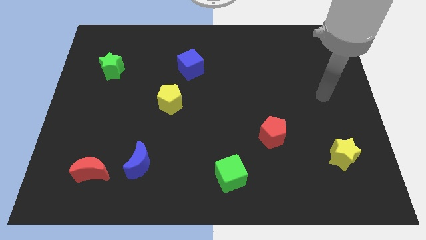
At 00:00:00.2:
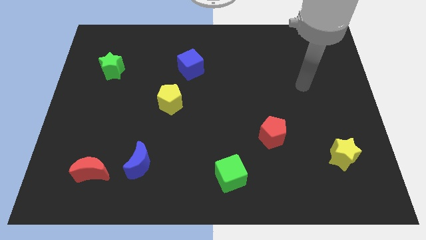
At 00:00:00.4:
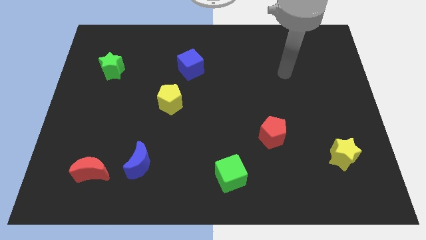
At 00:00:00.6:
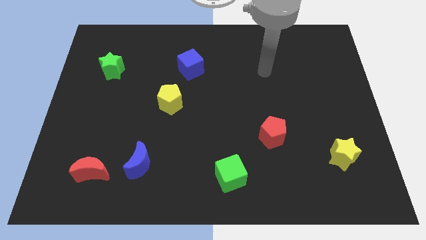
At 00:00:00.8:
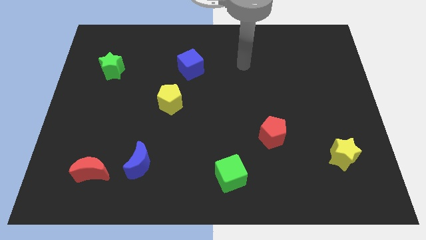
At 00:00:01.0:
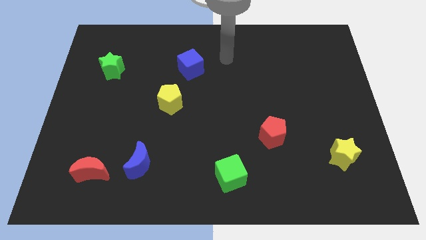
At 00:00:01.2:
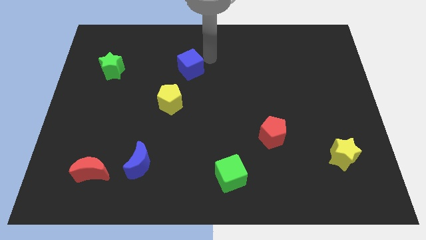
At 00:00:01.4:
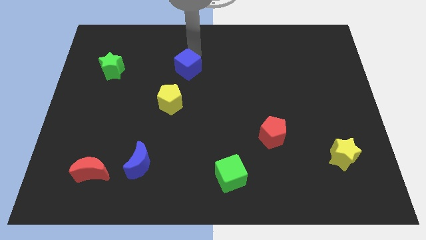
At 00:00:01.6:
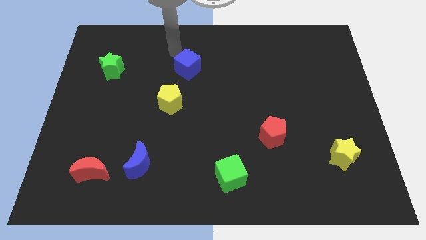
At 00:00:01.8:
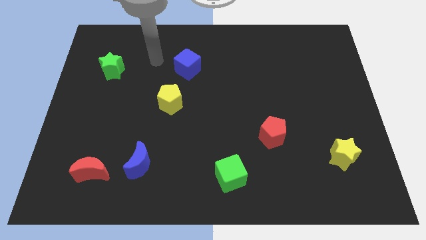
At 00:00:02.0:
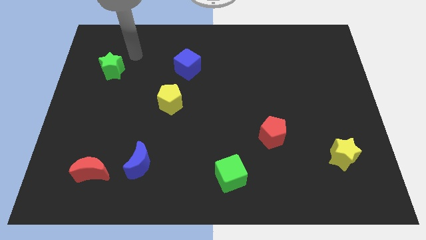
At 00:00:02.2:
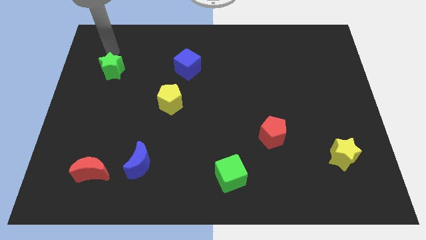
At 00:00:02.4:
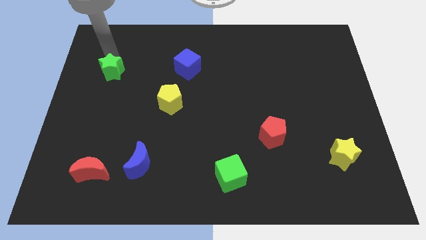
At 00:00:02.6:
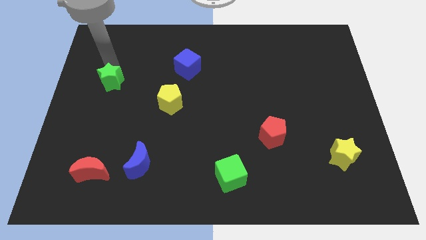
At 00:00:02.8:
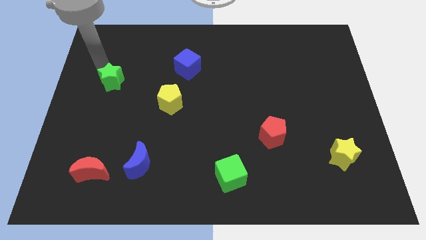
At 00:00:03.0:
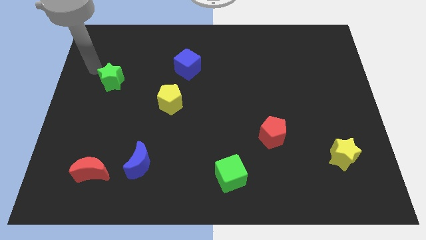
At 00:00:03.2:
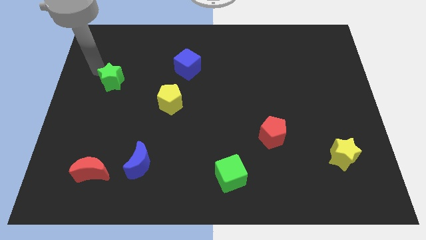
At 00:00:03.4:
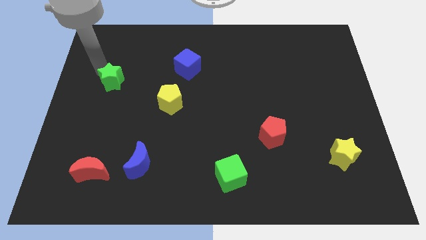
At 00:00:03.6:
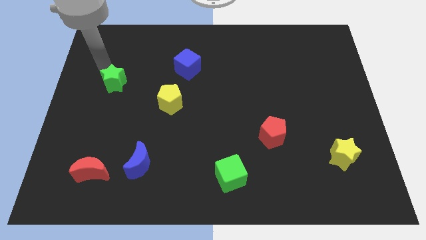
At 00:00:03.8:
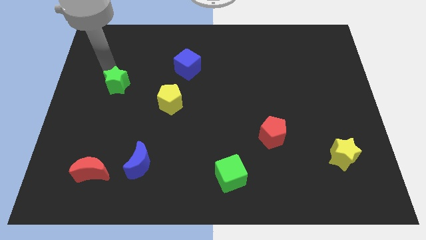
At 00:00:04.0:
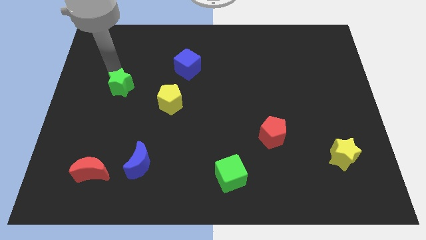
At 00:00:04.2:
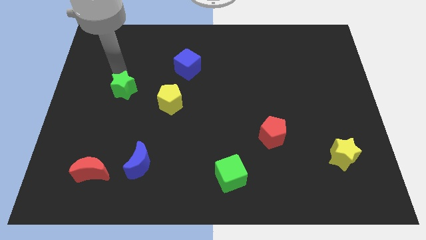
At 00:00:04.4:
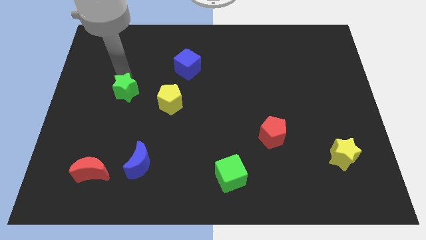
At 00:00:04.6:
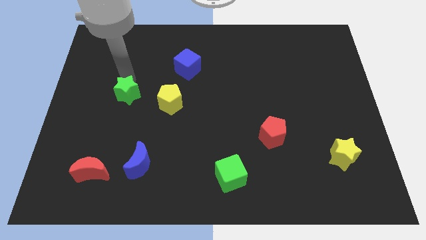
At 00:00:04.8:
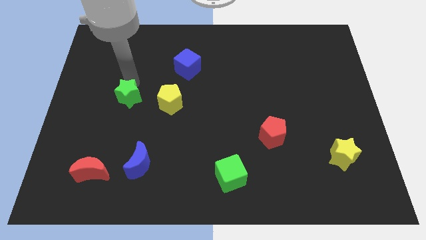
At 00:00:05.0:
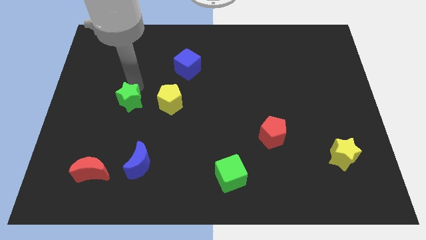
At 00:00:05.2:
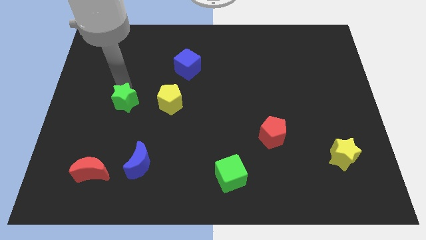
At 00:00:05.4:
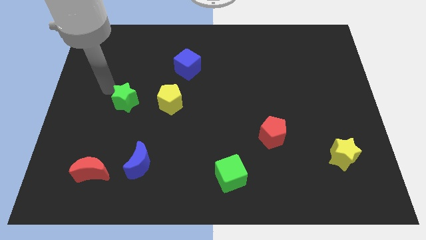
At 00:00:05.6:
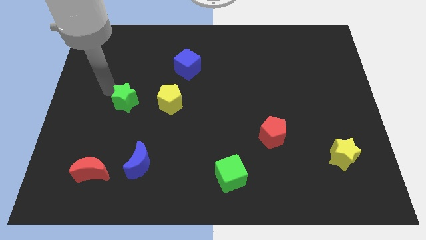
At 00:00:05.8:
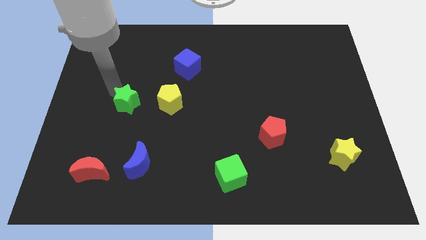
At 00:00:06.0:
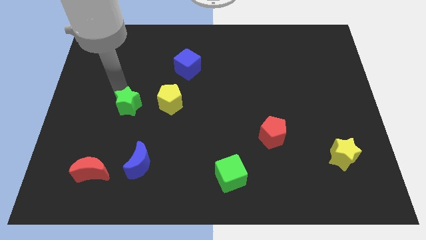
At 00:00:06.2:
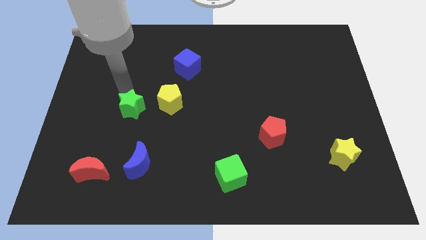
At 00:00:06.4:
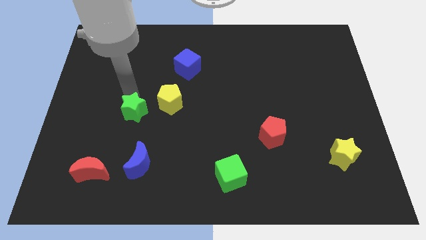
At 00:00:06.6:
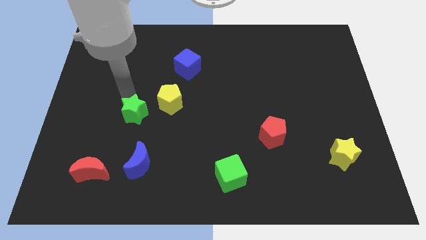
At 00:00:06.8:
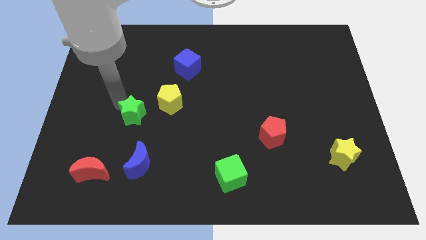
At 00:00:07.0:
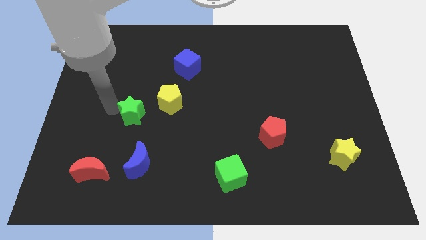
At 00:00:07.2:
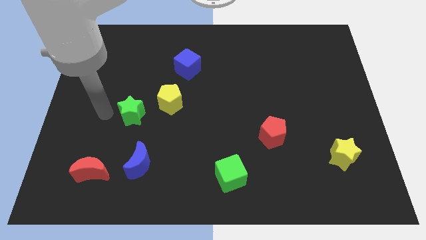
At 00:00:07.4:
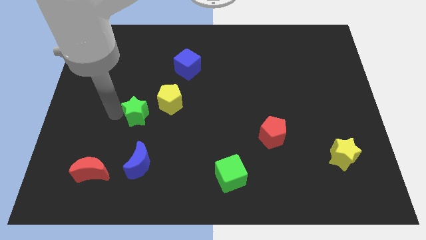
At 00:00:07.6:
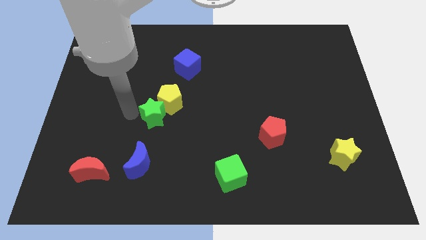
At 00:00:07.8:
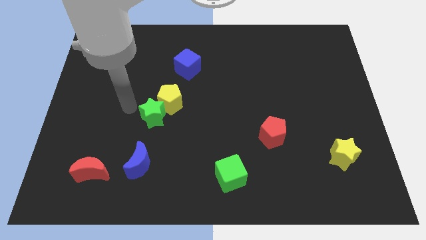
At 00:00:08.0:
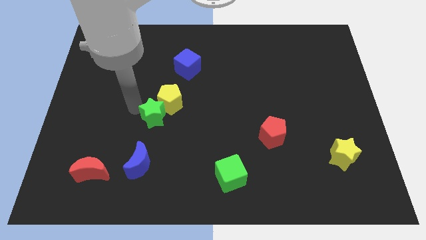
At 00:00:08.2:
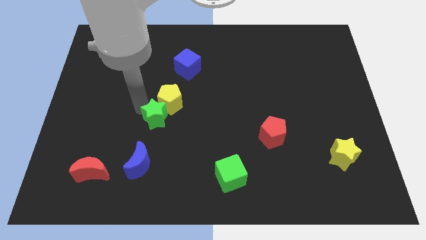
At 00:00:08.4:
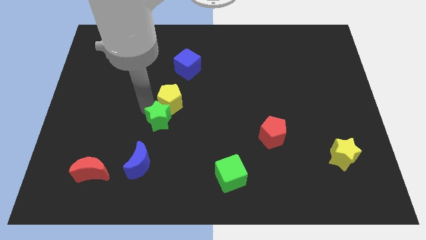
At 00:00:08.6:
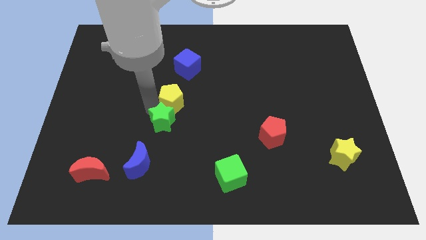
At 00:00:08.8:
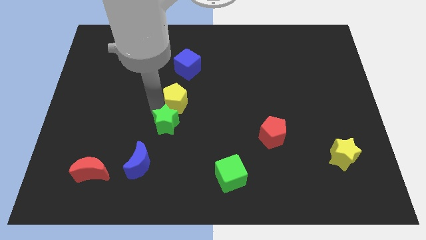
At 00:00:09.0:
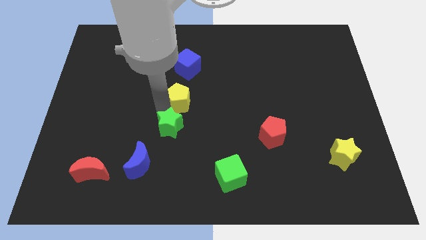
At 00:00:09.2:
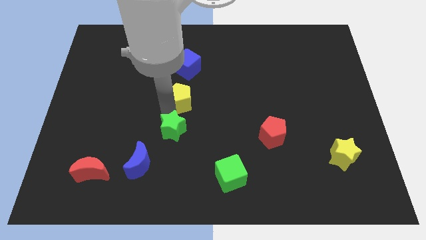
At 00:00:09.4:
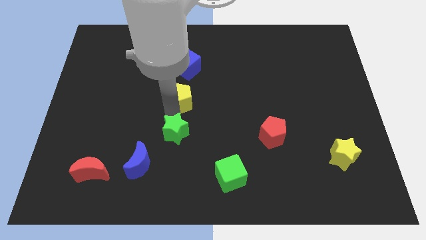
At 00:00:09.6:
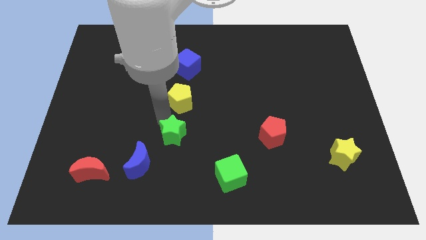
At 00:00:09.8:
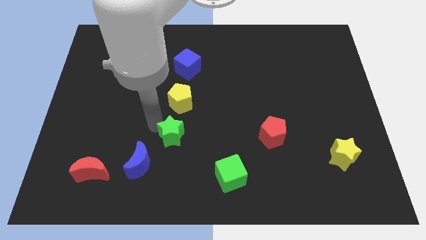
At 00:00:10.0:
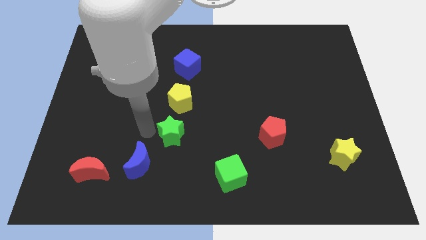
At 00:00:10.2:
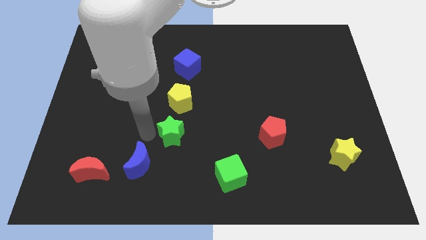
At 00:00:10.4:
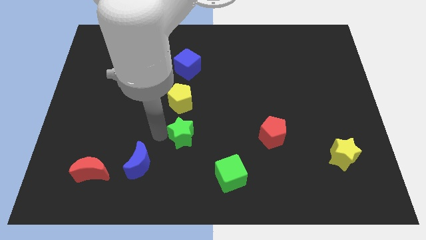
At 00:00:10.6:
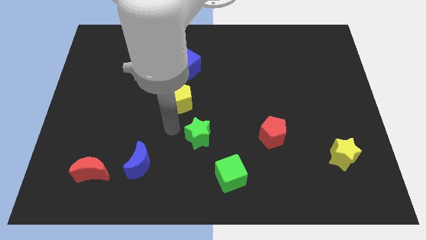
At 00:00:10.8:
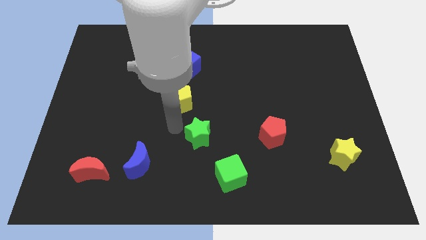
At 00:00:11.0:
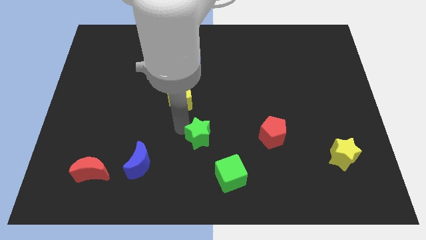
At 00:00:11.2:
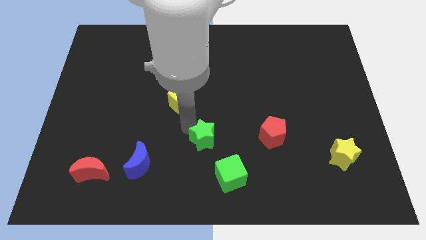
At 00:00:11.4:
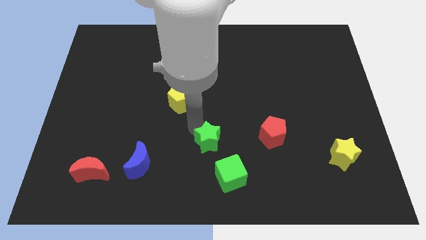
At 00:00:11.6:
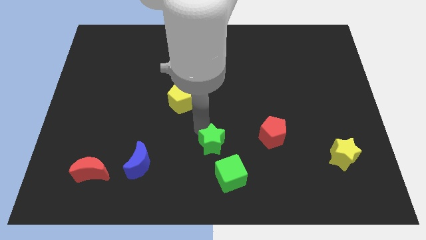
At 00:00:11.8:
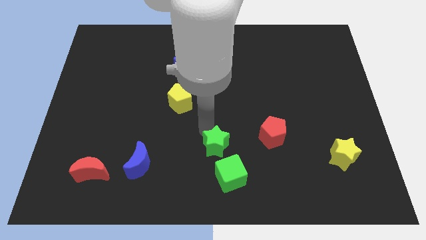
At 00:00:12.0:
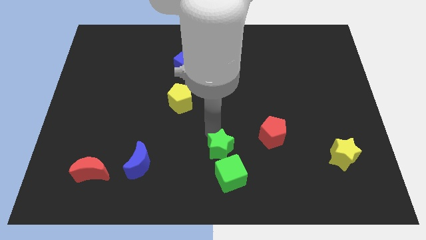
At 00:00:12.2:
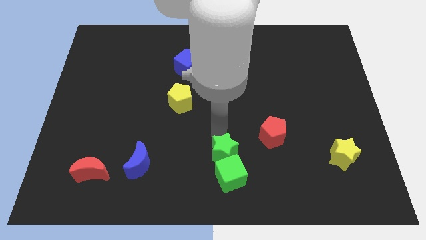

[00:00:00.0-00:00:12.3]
move the green star to the top right of the green cube

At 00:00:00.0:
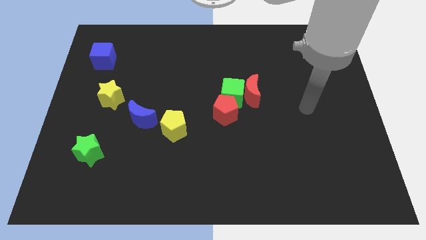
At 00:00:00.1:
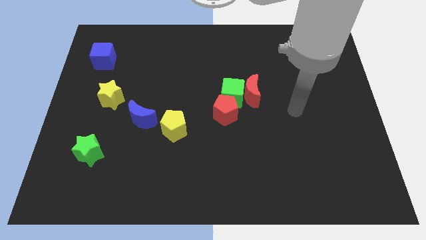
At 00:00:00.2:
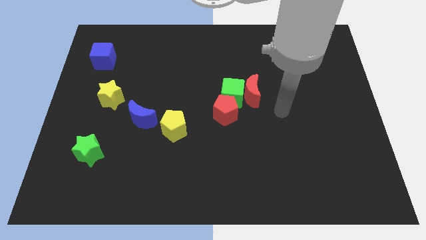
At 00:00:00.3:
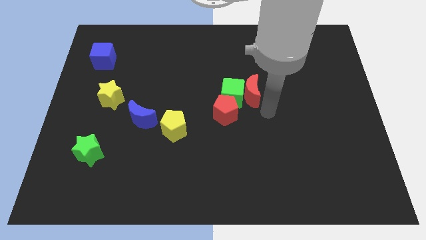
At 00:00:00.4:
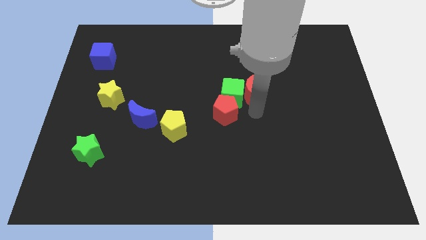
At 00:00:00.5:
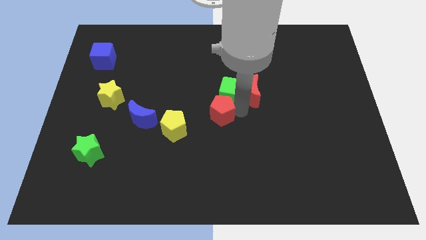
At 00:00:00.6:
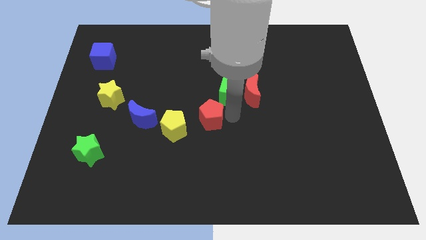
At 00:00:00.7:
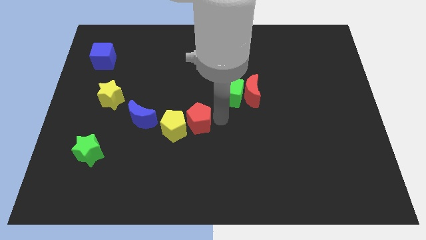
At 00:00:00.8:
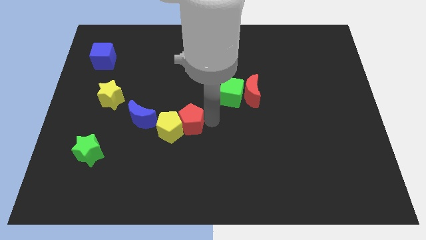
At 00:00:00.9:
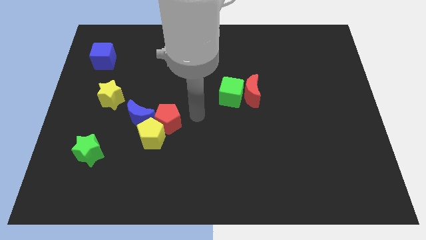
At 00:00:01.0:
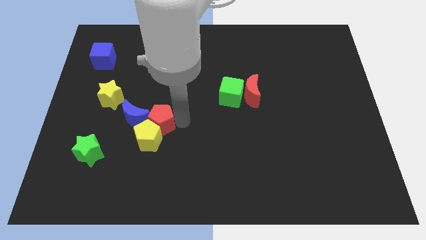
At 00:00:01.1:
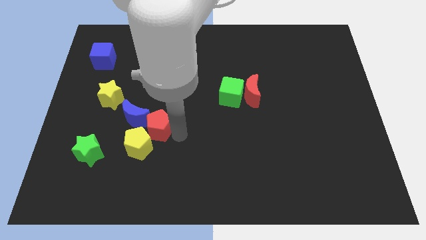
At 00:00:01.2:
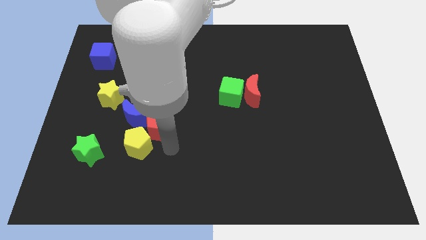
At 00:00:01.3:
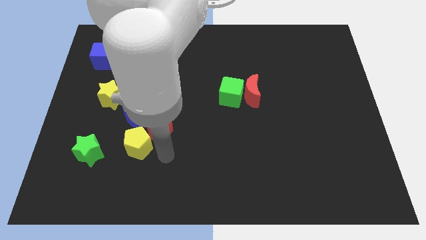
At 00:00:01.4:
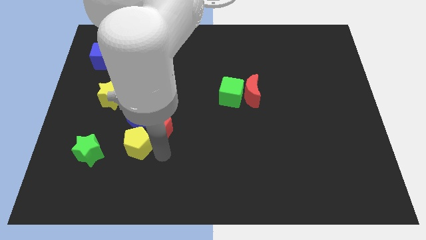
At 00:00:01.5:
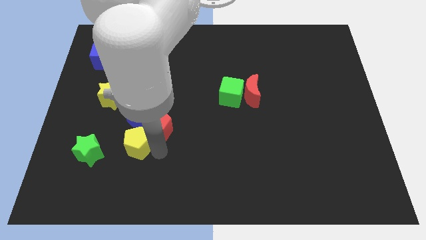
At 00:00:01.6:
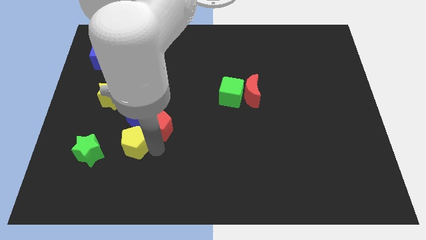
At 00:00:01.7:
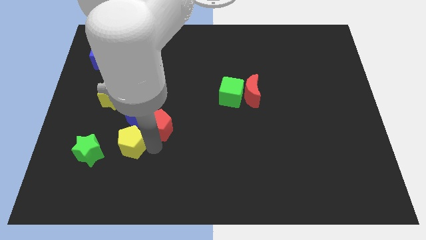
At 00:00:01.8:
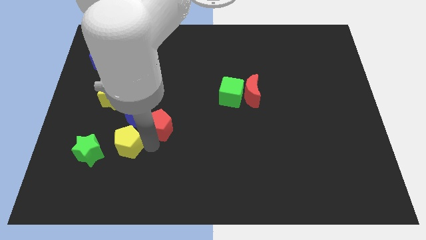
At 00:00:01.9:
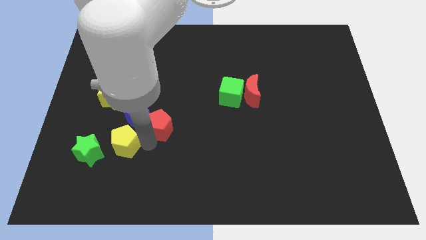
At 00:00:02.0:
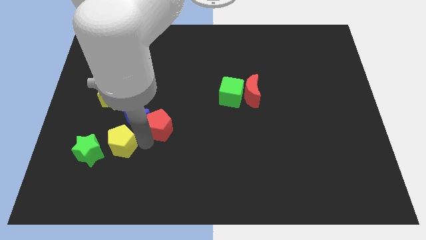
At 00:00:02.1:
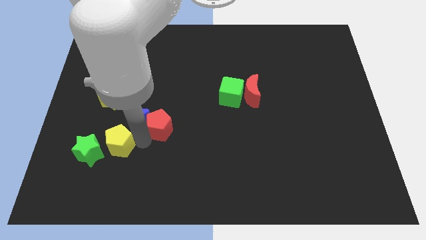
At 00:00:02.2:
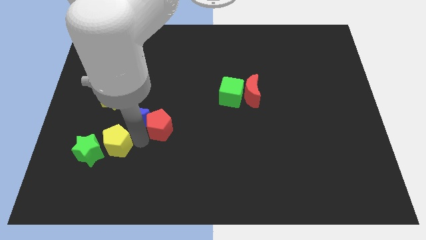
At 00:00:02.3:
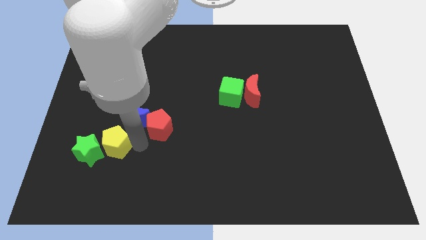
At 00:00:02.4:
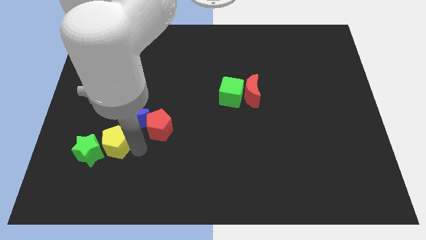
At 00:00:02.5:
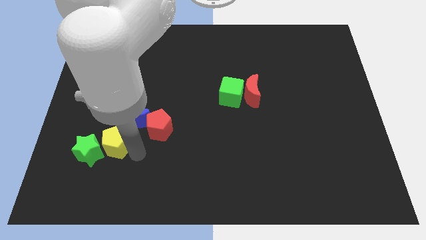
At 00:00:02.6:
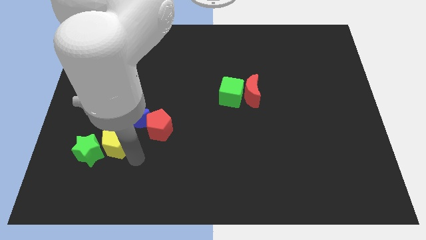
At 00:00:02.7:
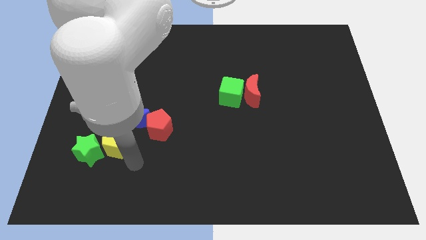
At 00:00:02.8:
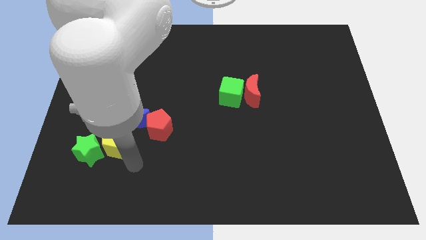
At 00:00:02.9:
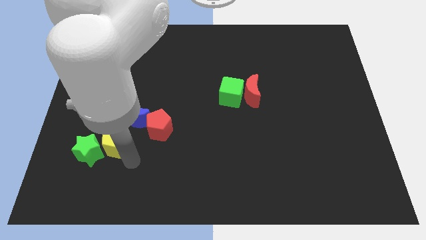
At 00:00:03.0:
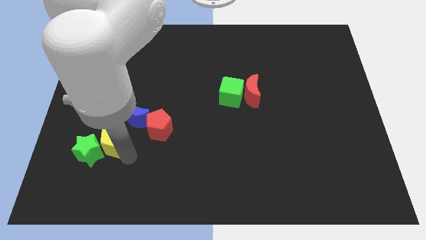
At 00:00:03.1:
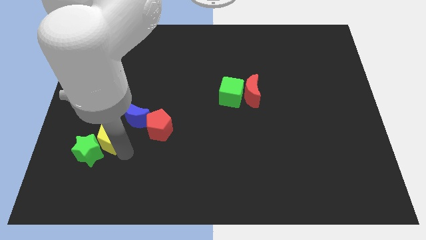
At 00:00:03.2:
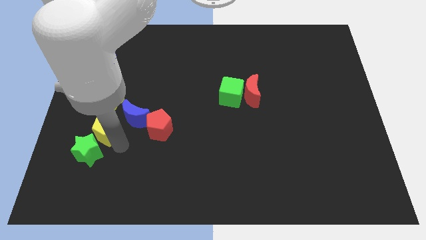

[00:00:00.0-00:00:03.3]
move the yellow pentagon to the left of the blue moon
